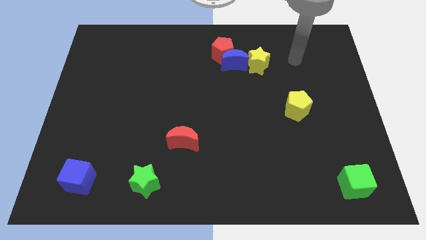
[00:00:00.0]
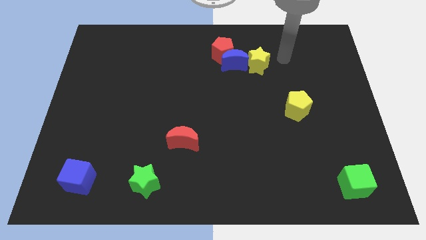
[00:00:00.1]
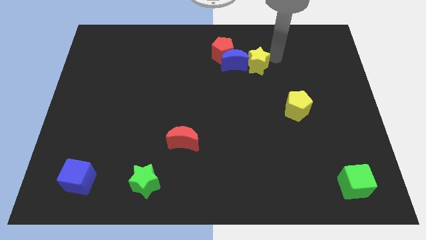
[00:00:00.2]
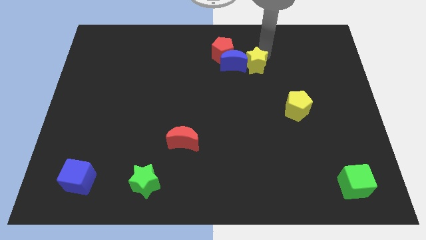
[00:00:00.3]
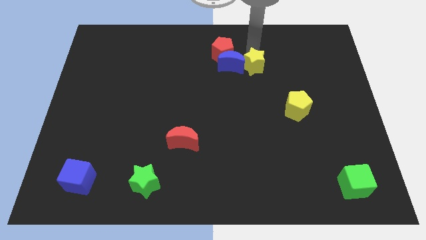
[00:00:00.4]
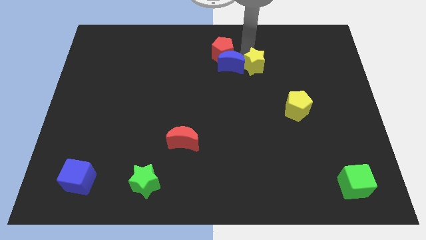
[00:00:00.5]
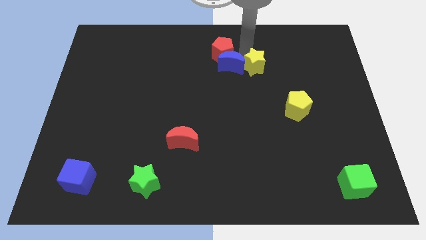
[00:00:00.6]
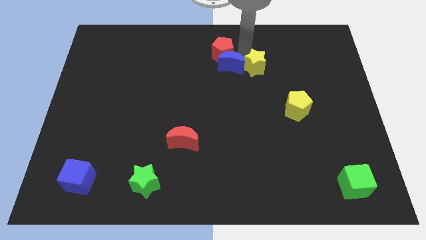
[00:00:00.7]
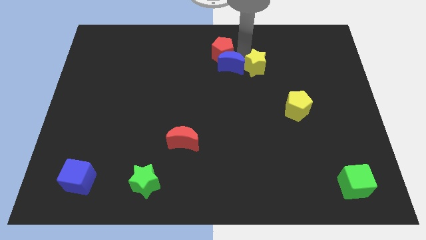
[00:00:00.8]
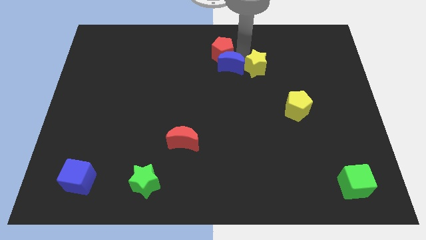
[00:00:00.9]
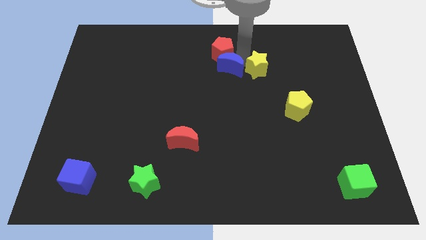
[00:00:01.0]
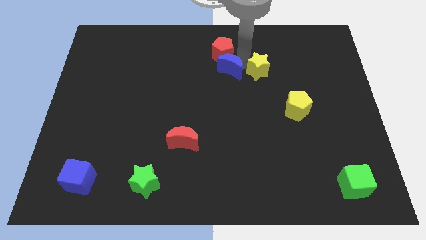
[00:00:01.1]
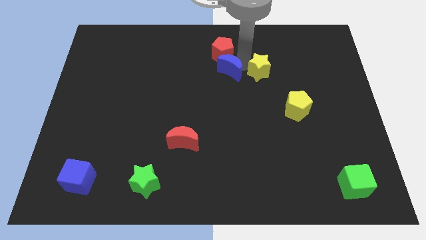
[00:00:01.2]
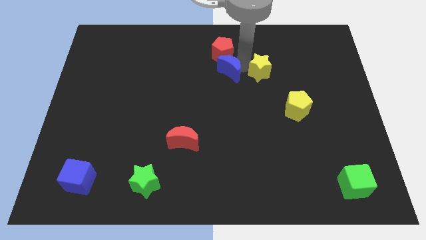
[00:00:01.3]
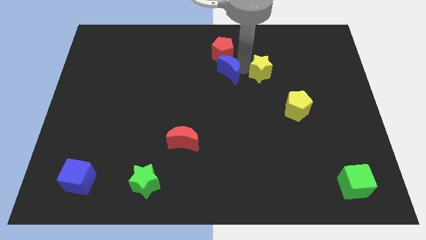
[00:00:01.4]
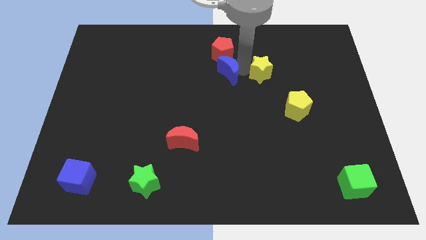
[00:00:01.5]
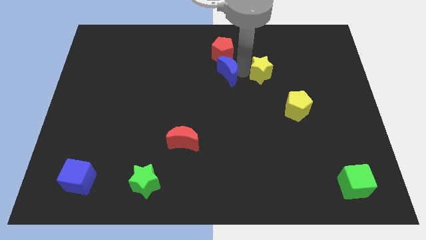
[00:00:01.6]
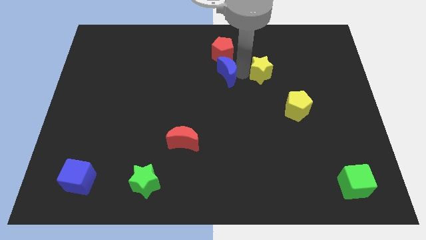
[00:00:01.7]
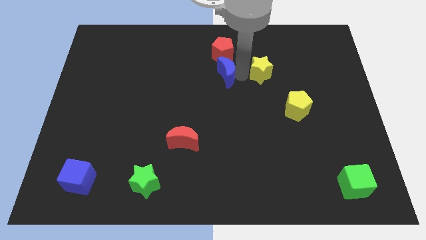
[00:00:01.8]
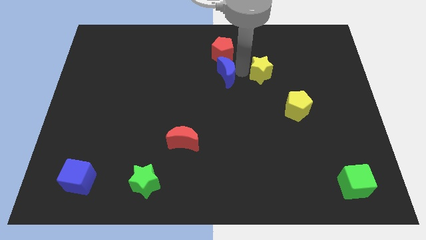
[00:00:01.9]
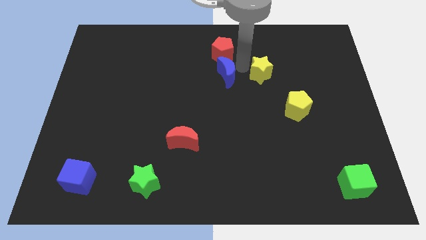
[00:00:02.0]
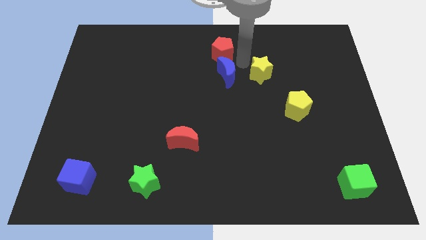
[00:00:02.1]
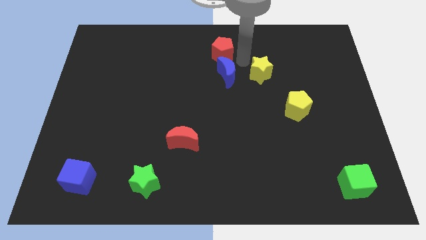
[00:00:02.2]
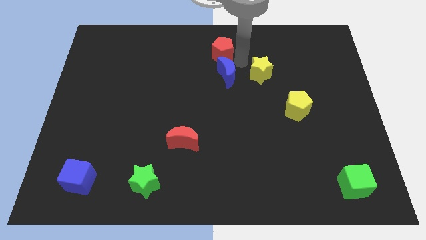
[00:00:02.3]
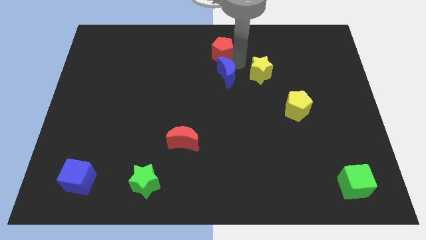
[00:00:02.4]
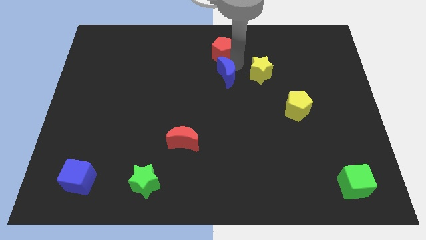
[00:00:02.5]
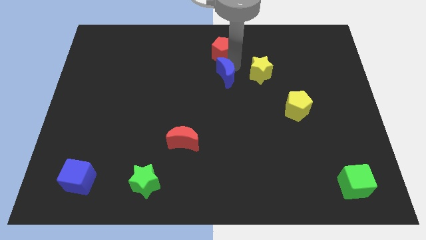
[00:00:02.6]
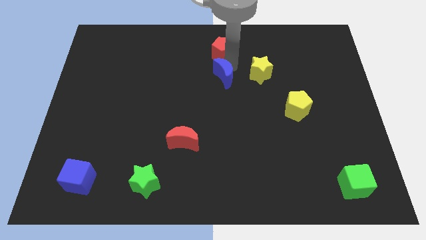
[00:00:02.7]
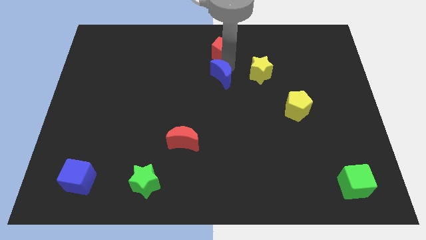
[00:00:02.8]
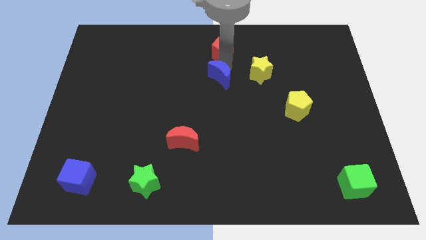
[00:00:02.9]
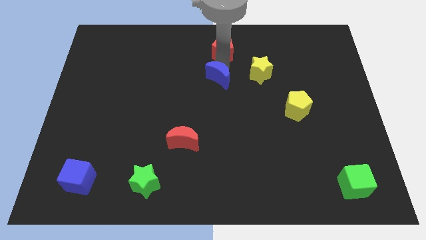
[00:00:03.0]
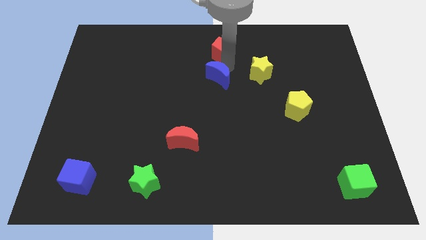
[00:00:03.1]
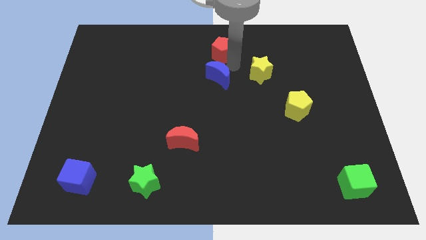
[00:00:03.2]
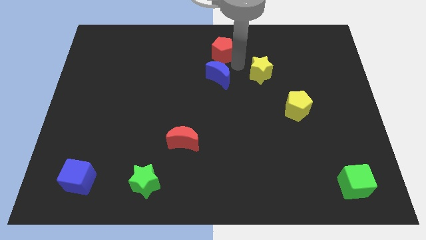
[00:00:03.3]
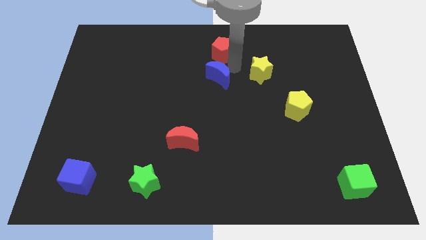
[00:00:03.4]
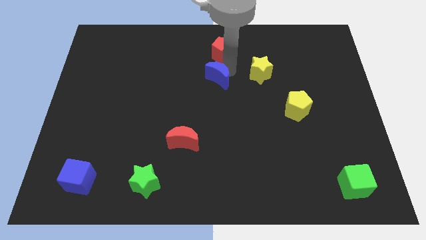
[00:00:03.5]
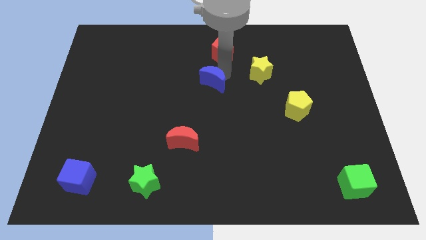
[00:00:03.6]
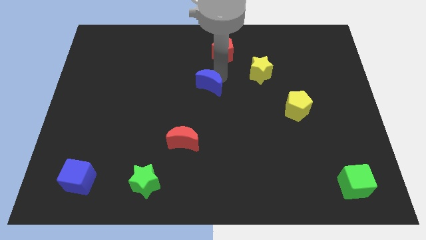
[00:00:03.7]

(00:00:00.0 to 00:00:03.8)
pull the blue moon apart from the red pentagon and yellow star

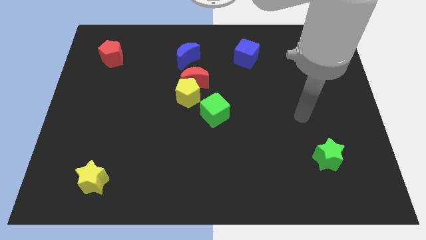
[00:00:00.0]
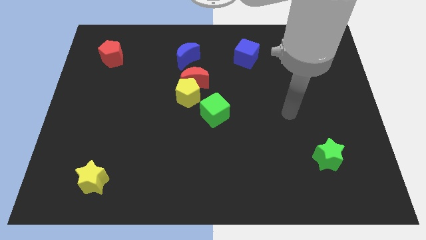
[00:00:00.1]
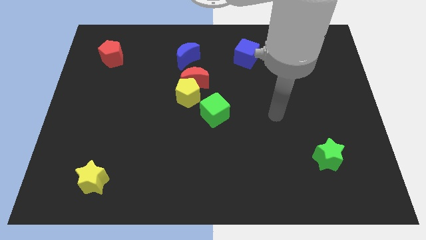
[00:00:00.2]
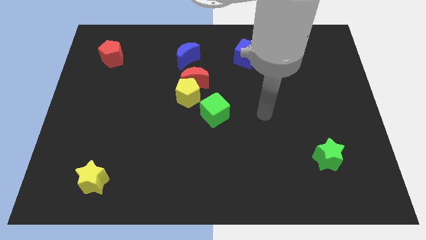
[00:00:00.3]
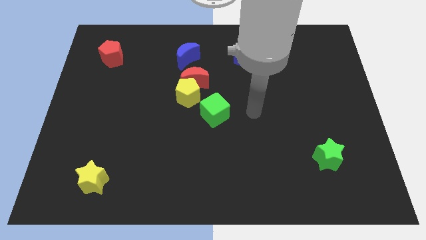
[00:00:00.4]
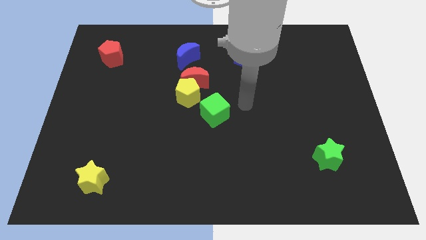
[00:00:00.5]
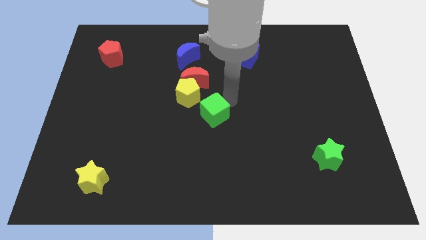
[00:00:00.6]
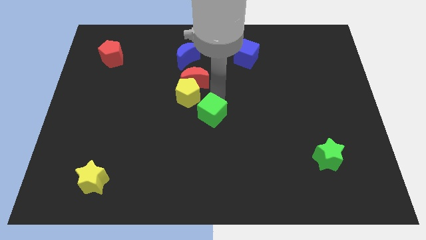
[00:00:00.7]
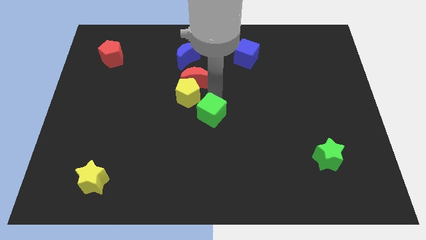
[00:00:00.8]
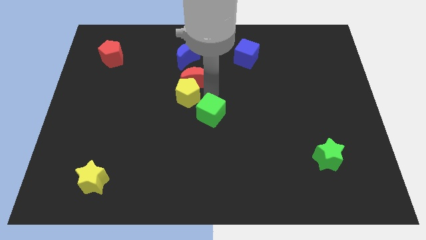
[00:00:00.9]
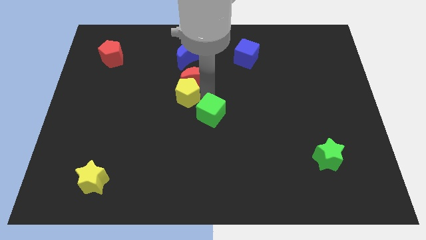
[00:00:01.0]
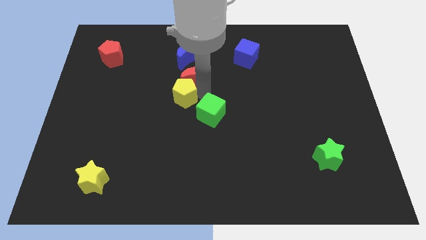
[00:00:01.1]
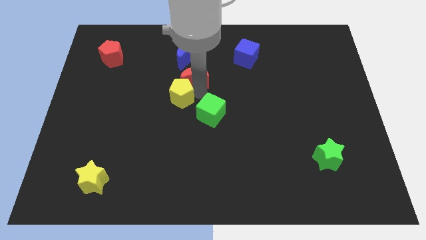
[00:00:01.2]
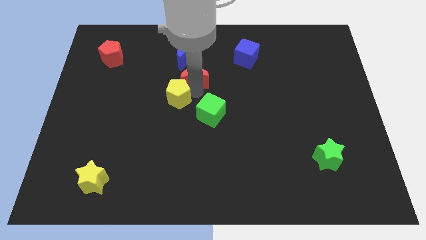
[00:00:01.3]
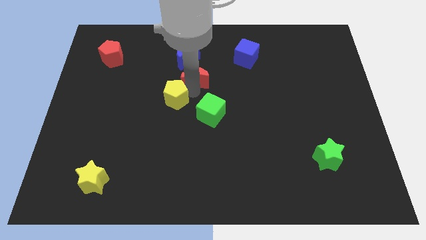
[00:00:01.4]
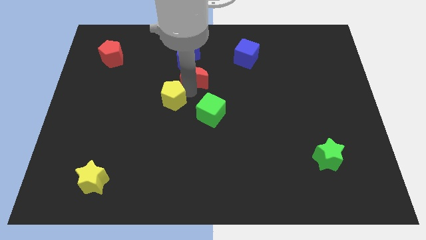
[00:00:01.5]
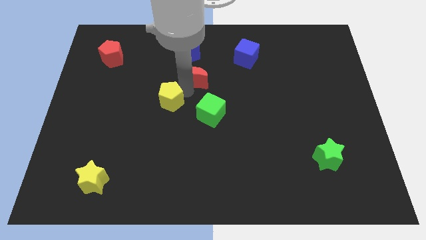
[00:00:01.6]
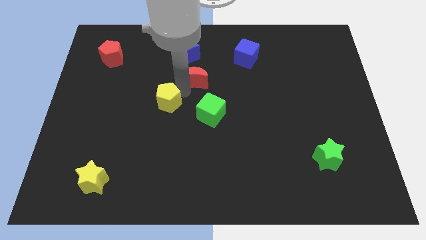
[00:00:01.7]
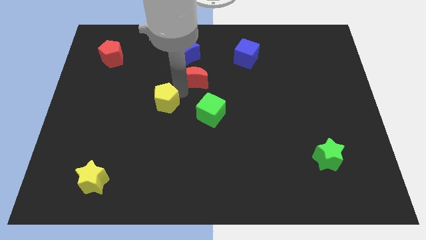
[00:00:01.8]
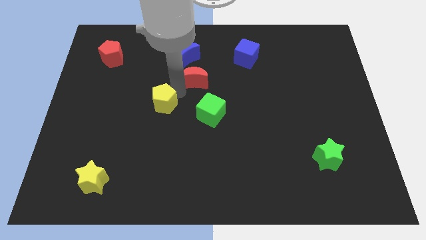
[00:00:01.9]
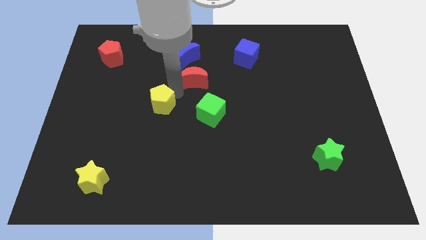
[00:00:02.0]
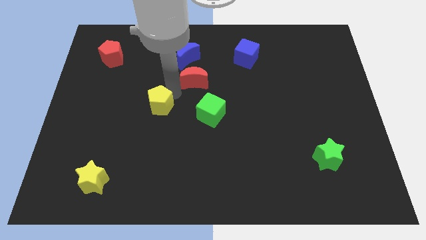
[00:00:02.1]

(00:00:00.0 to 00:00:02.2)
separate the yellow pentagon from the red moon and green cube

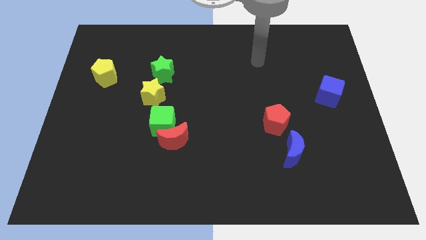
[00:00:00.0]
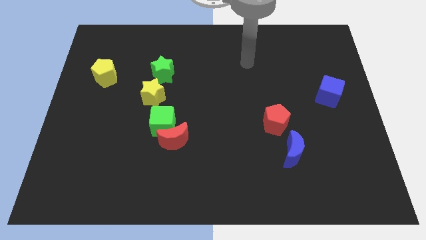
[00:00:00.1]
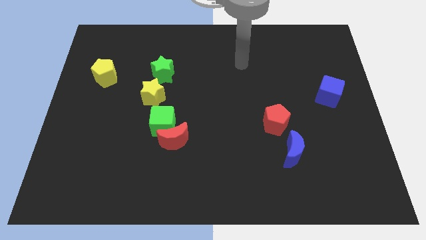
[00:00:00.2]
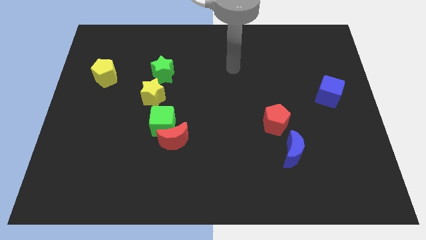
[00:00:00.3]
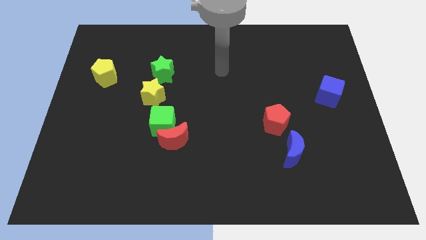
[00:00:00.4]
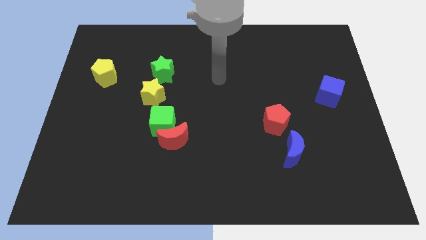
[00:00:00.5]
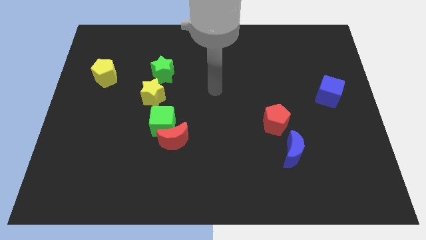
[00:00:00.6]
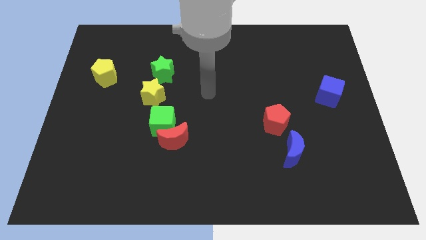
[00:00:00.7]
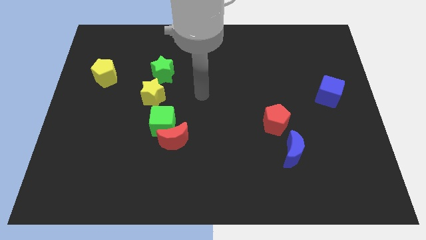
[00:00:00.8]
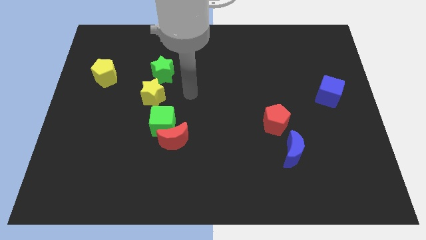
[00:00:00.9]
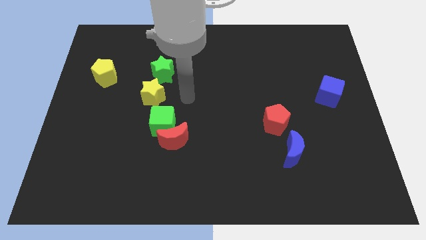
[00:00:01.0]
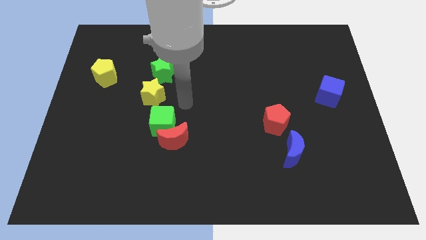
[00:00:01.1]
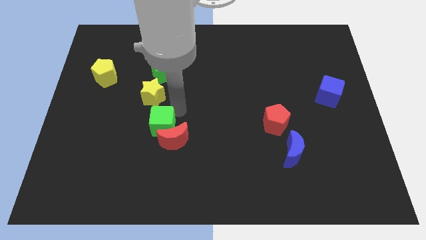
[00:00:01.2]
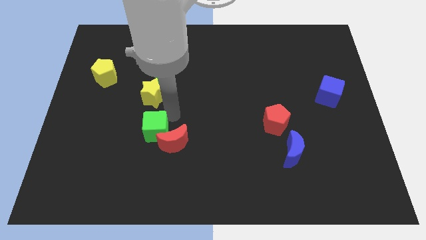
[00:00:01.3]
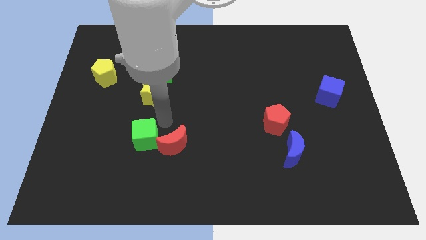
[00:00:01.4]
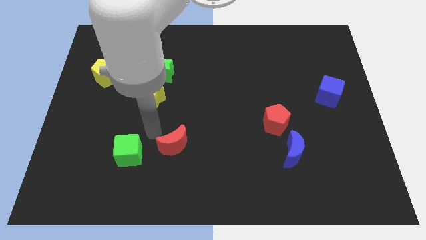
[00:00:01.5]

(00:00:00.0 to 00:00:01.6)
separate the red moon from the green cube

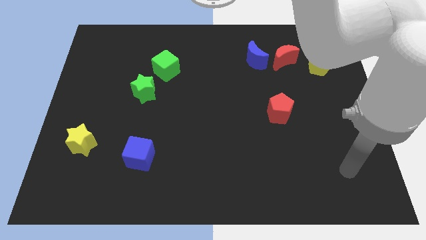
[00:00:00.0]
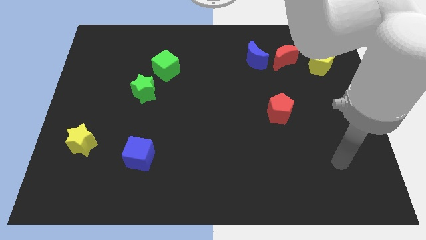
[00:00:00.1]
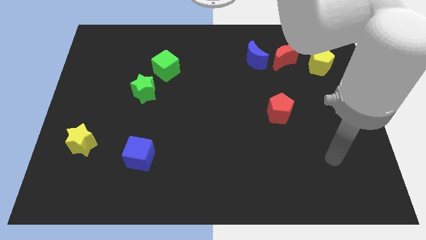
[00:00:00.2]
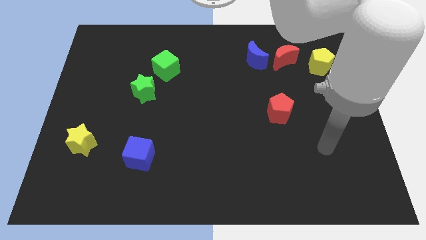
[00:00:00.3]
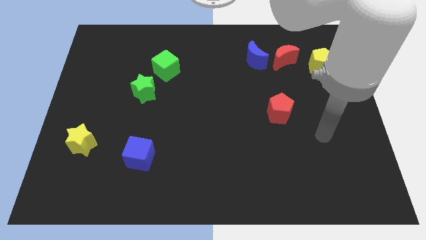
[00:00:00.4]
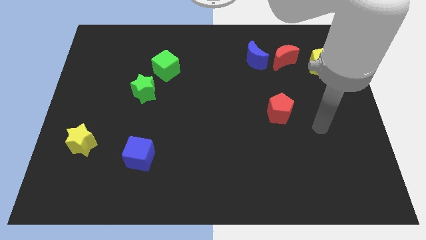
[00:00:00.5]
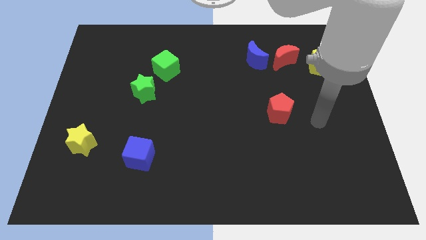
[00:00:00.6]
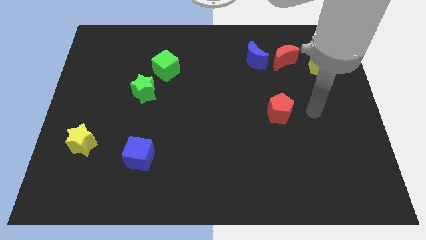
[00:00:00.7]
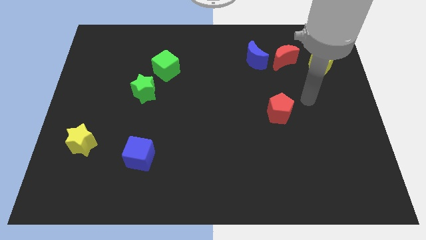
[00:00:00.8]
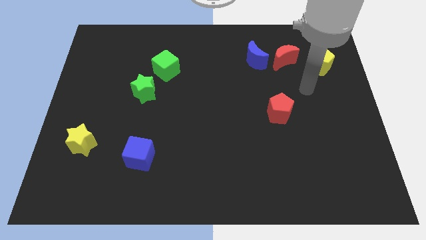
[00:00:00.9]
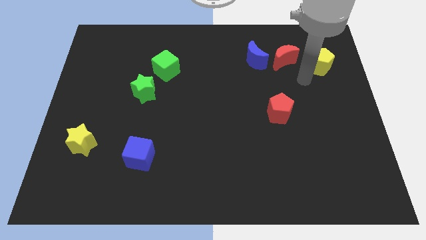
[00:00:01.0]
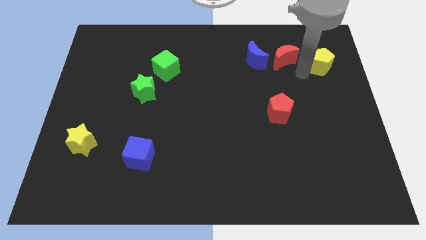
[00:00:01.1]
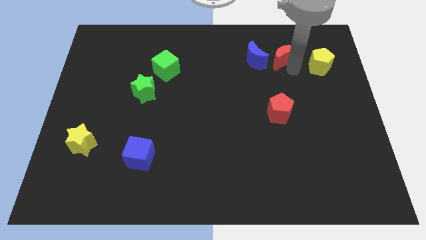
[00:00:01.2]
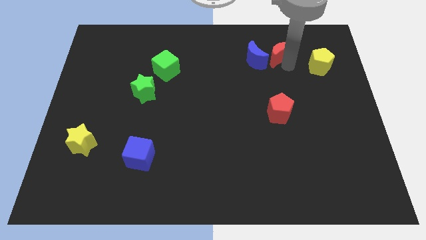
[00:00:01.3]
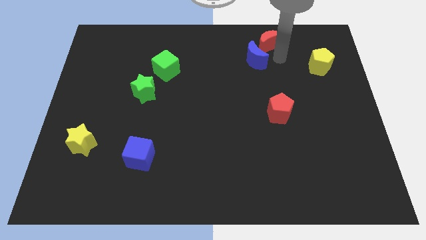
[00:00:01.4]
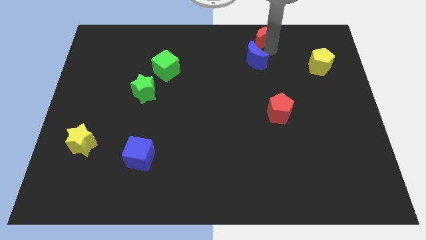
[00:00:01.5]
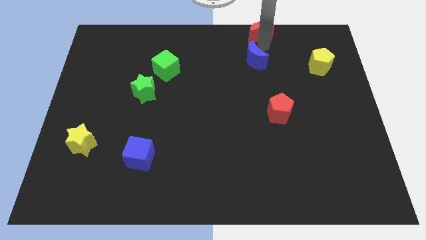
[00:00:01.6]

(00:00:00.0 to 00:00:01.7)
separate the blue moon from the red moon
